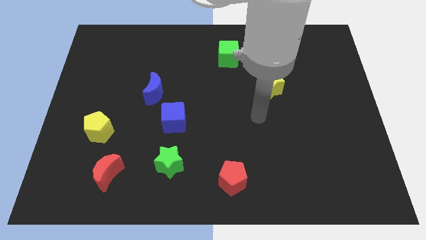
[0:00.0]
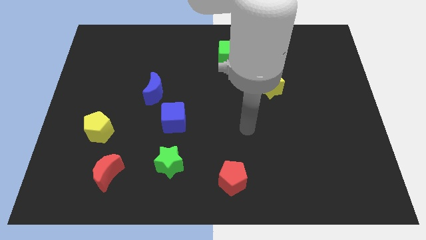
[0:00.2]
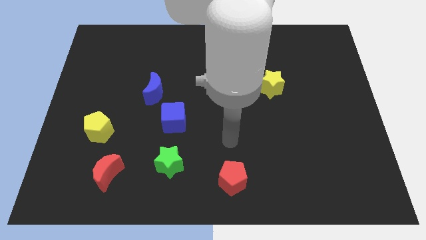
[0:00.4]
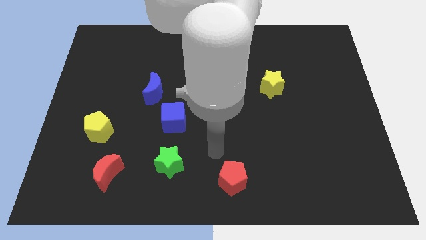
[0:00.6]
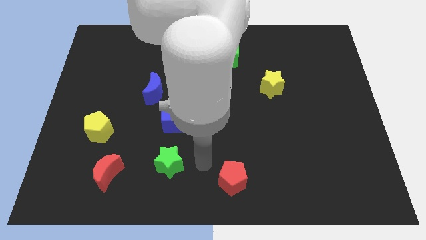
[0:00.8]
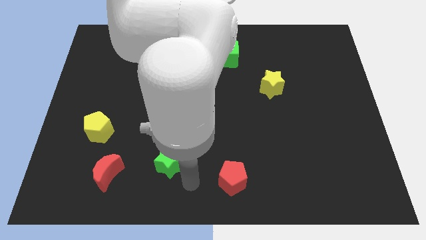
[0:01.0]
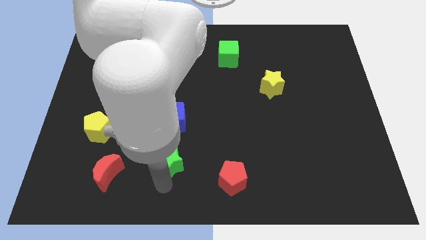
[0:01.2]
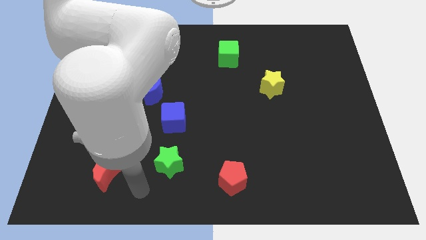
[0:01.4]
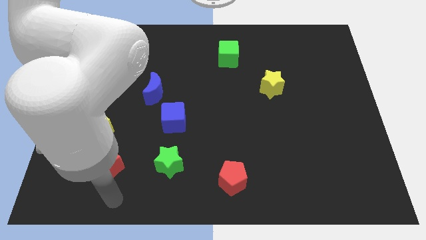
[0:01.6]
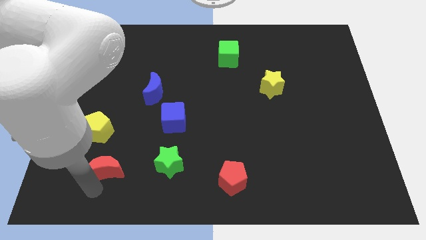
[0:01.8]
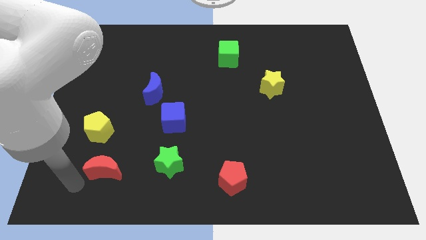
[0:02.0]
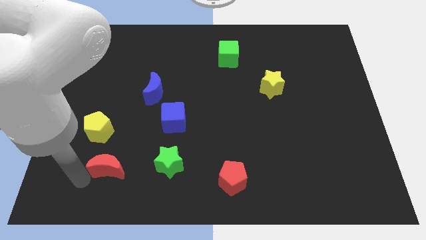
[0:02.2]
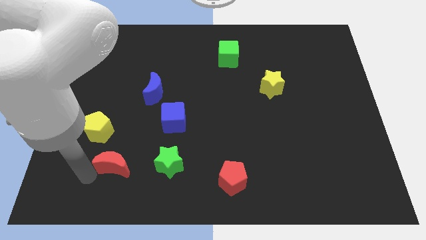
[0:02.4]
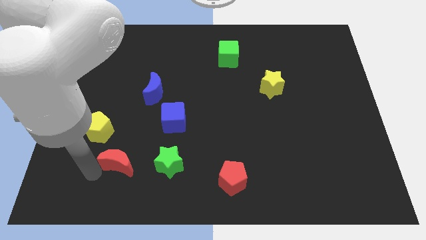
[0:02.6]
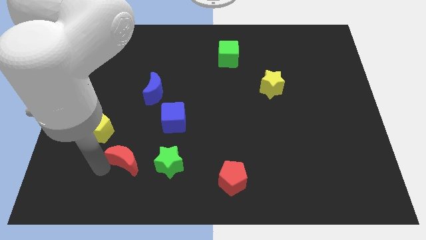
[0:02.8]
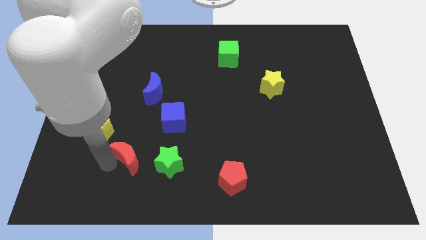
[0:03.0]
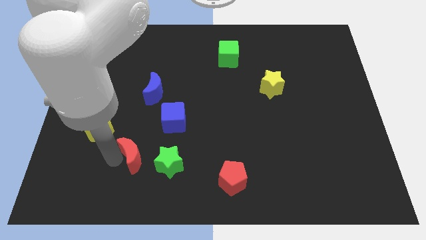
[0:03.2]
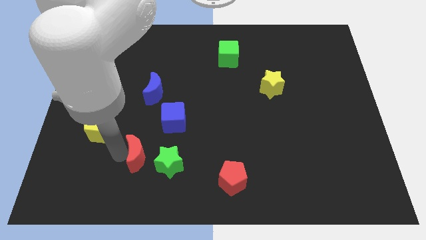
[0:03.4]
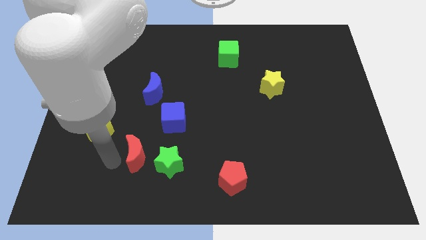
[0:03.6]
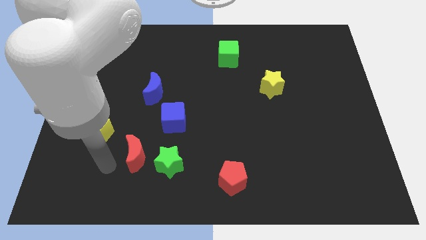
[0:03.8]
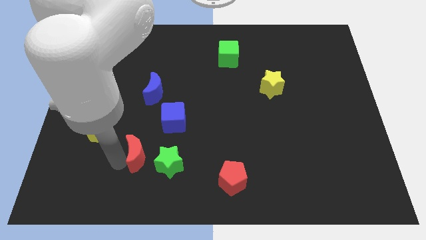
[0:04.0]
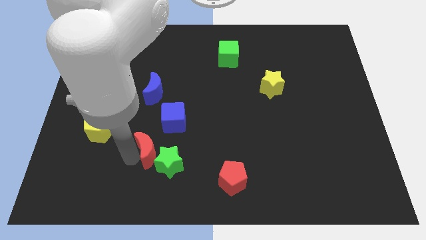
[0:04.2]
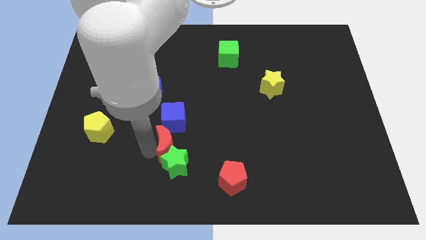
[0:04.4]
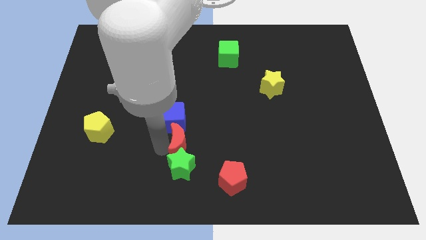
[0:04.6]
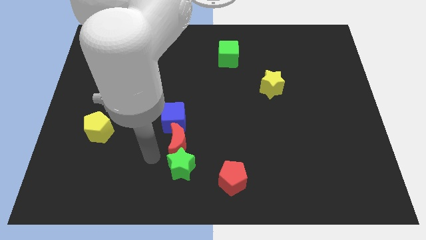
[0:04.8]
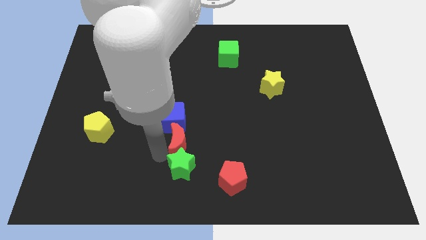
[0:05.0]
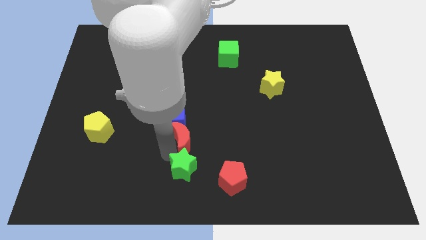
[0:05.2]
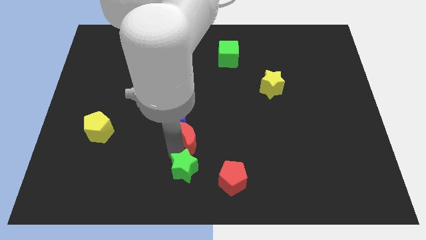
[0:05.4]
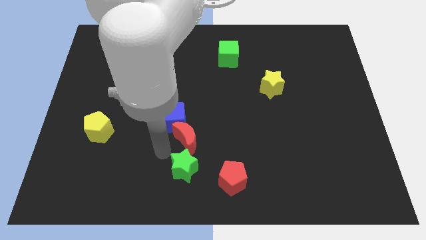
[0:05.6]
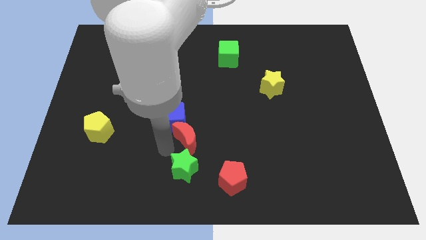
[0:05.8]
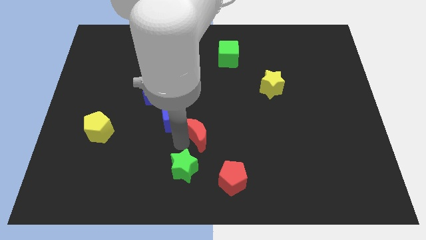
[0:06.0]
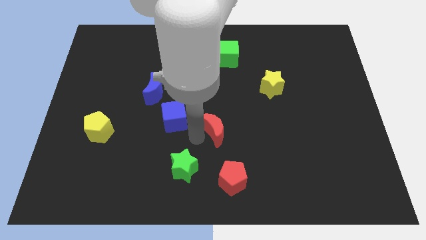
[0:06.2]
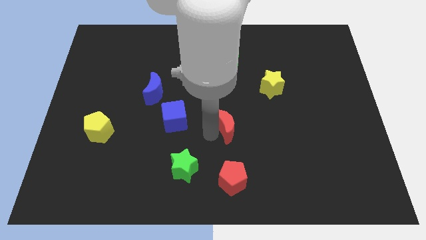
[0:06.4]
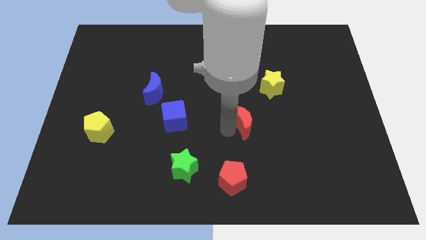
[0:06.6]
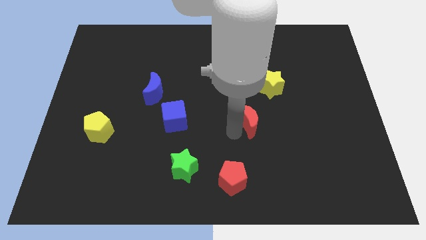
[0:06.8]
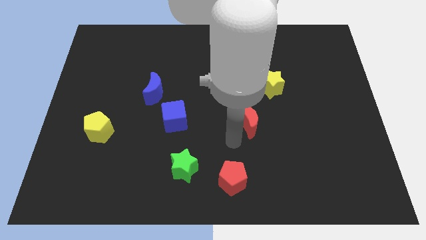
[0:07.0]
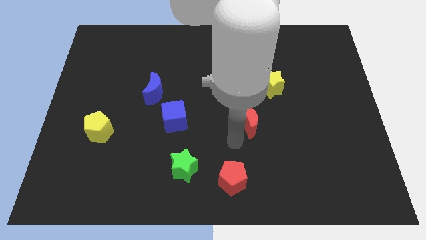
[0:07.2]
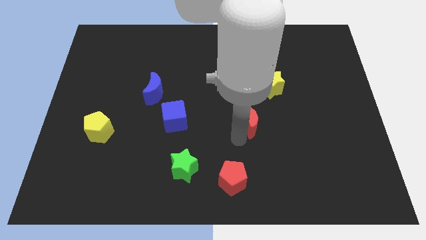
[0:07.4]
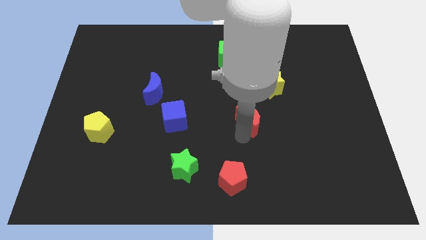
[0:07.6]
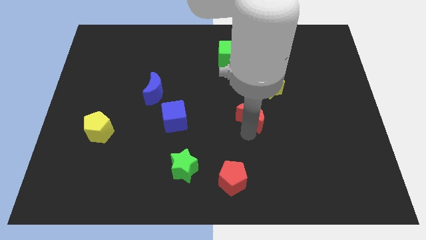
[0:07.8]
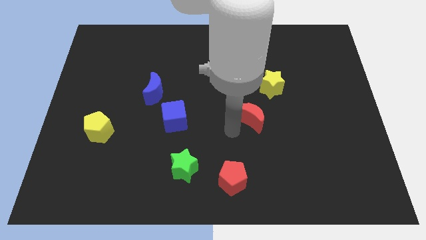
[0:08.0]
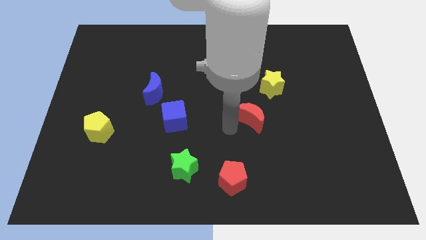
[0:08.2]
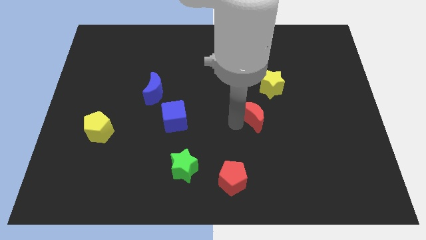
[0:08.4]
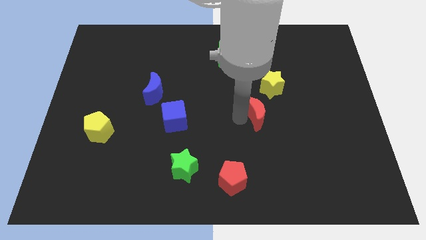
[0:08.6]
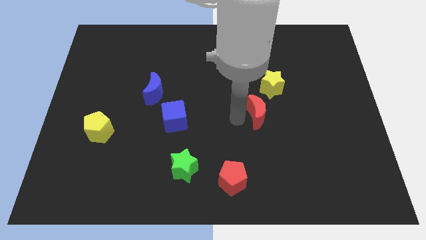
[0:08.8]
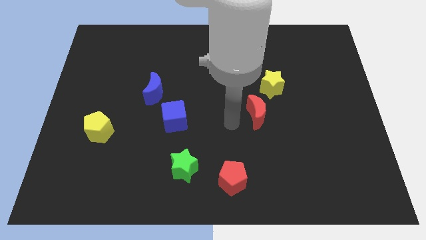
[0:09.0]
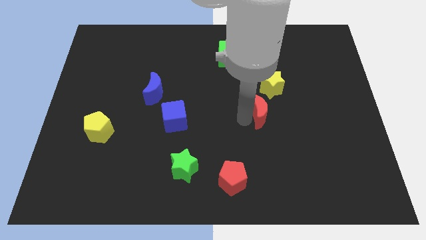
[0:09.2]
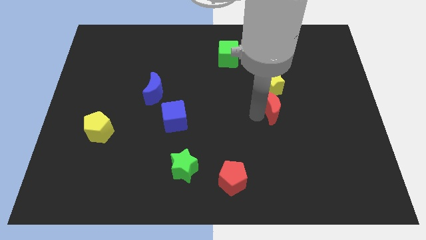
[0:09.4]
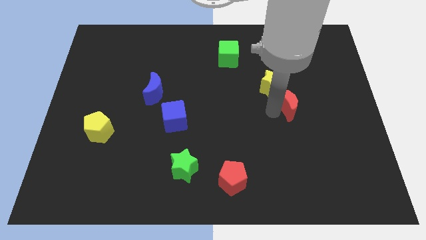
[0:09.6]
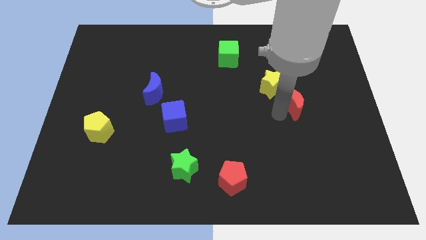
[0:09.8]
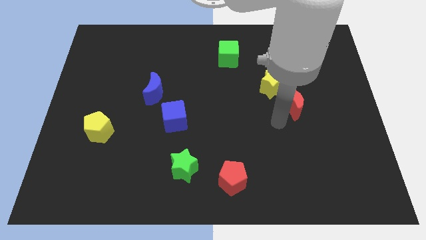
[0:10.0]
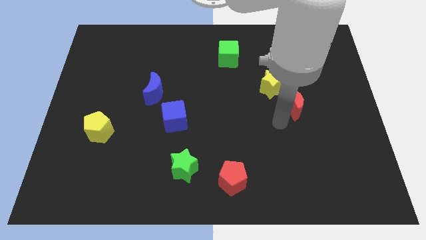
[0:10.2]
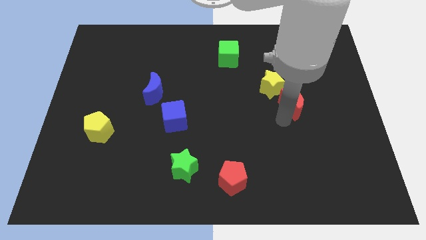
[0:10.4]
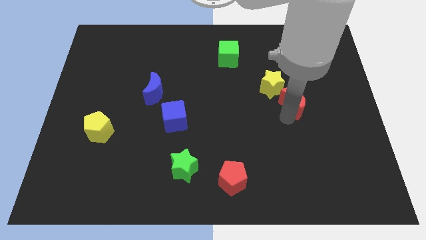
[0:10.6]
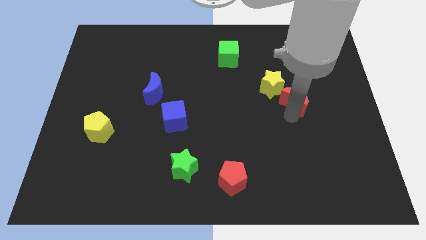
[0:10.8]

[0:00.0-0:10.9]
push the red moon just right of the yellow star

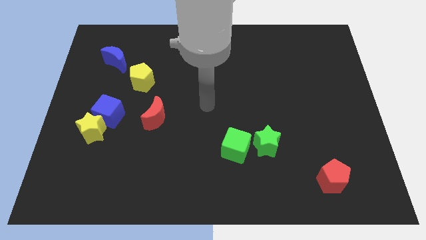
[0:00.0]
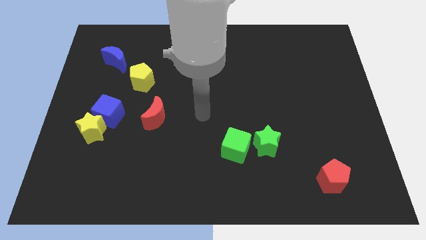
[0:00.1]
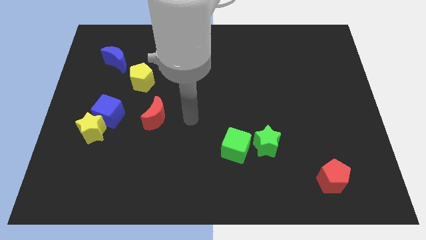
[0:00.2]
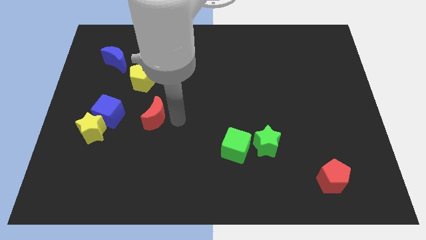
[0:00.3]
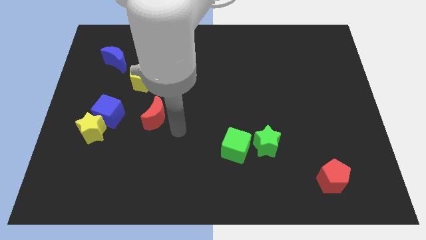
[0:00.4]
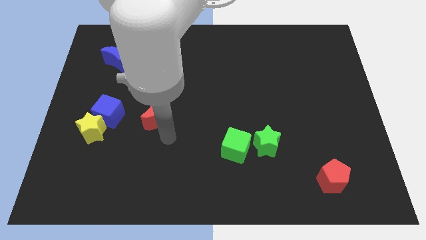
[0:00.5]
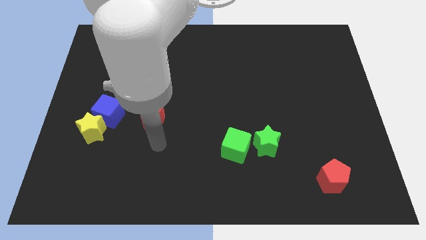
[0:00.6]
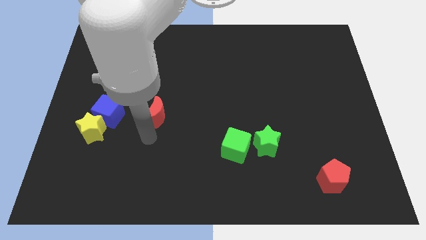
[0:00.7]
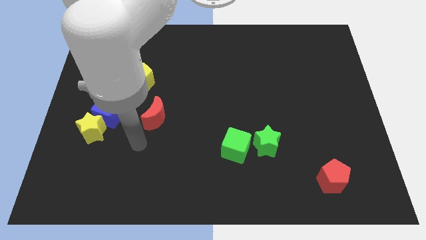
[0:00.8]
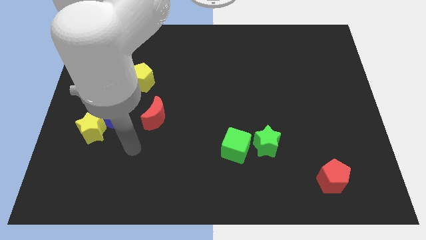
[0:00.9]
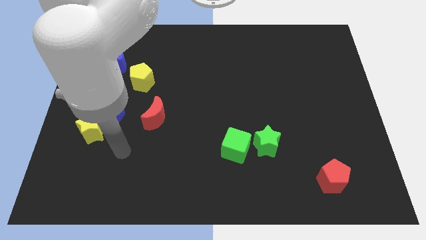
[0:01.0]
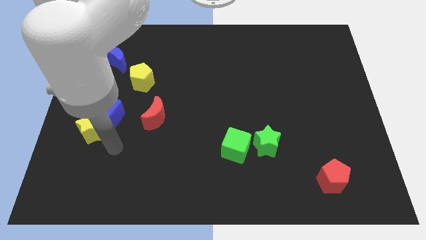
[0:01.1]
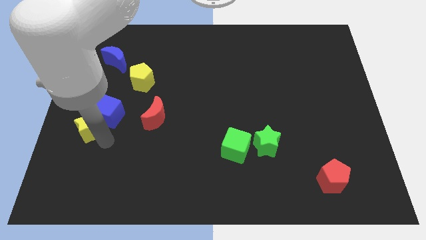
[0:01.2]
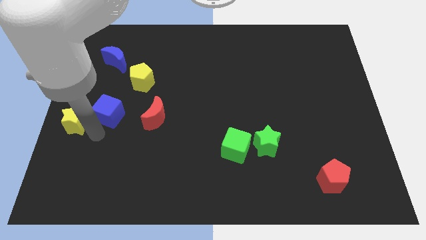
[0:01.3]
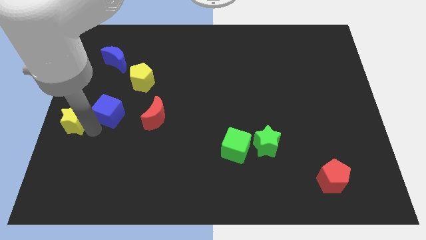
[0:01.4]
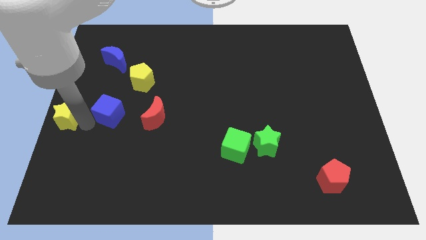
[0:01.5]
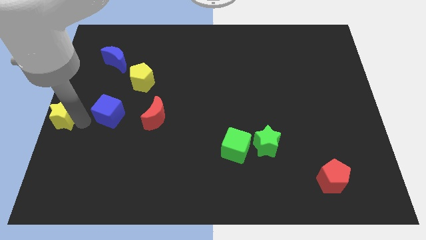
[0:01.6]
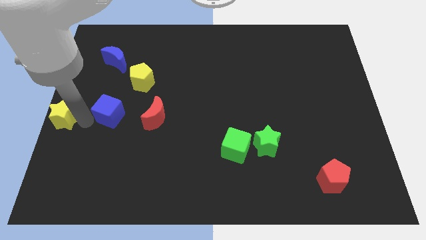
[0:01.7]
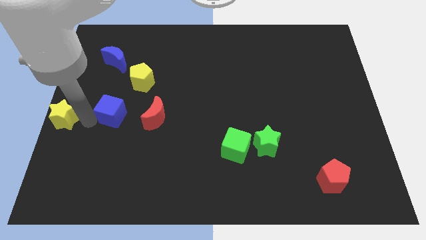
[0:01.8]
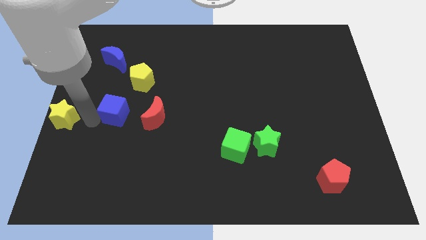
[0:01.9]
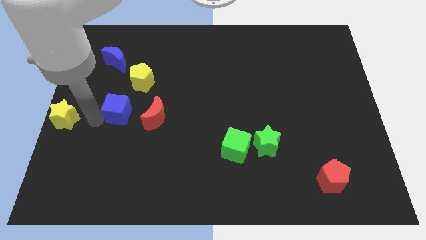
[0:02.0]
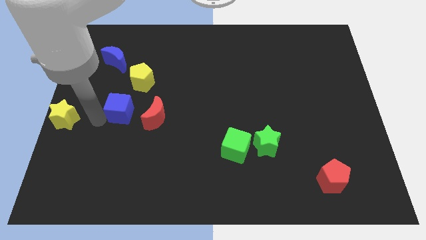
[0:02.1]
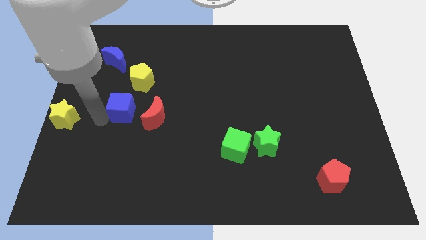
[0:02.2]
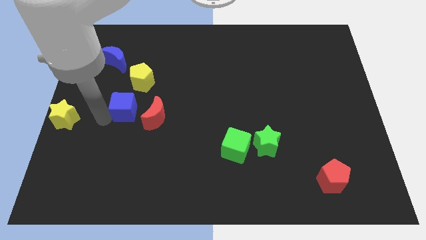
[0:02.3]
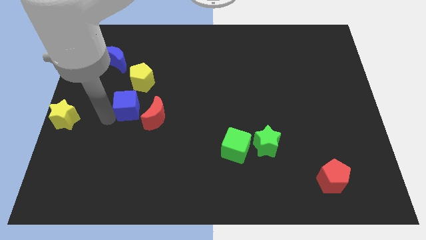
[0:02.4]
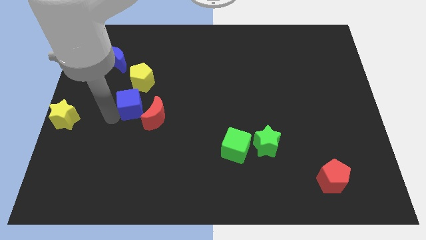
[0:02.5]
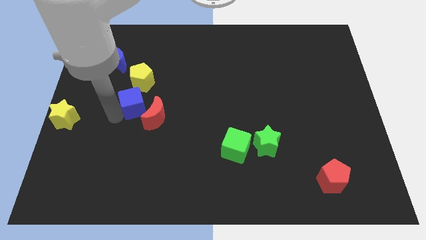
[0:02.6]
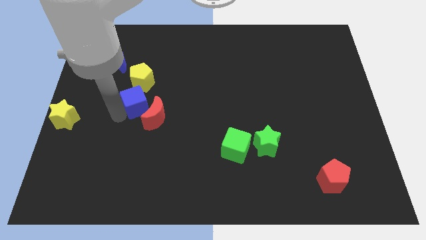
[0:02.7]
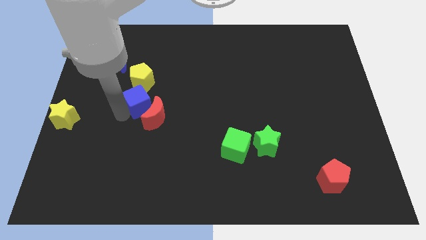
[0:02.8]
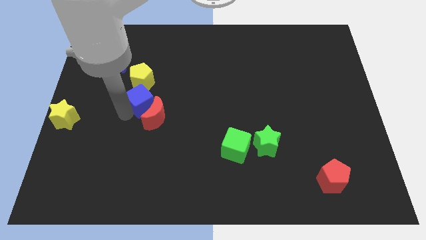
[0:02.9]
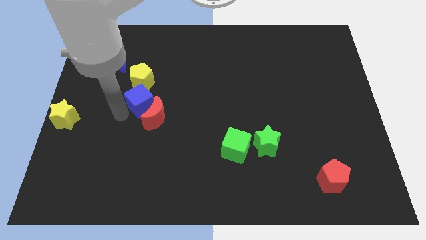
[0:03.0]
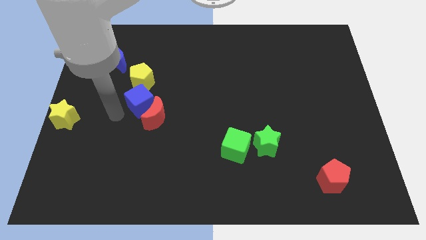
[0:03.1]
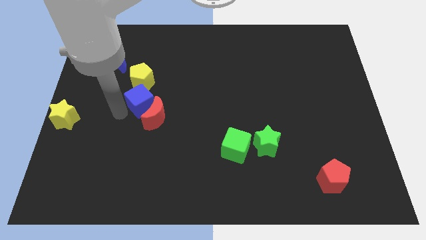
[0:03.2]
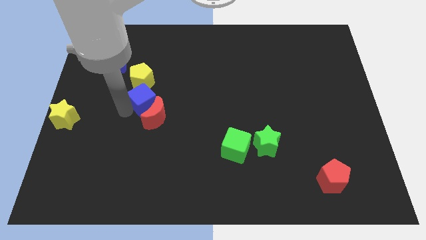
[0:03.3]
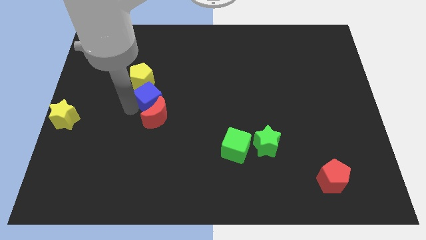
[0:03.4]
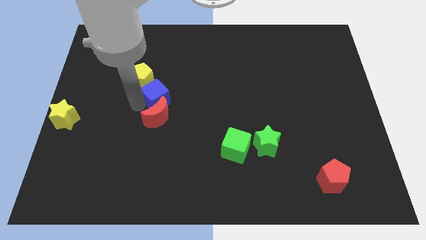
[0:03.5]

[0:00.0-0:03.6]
move the blue cube to the top right side of the red moon
